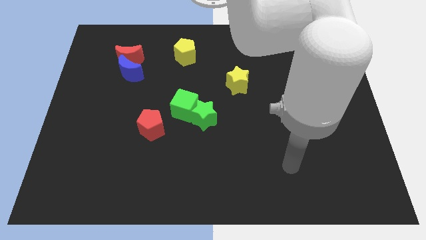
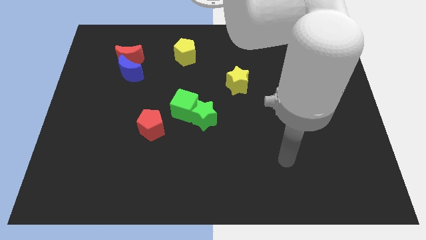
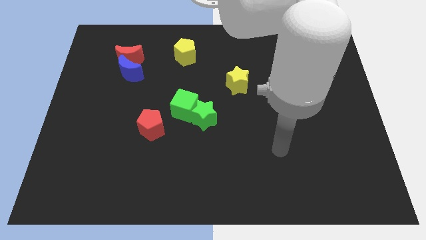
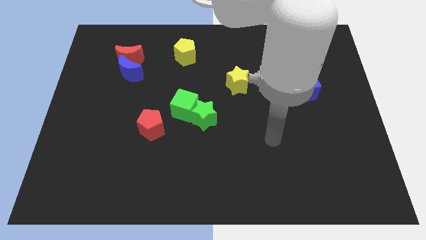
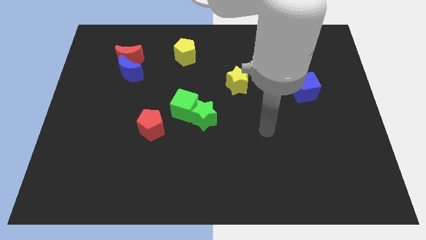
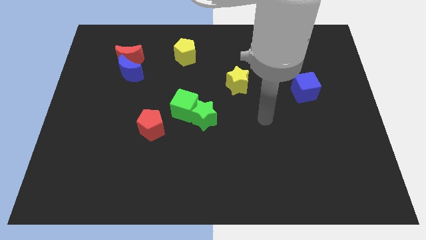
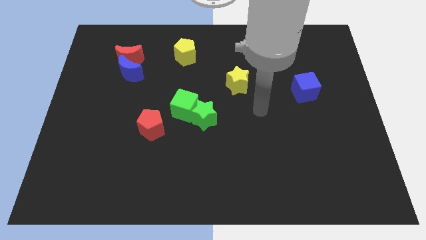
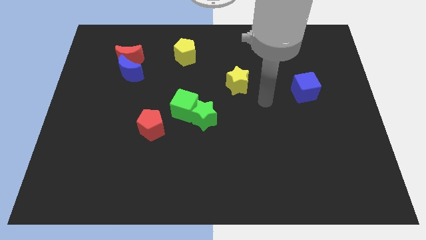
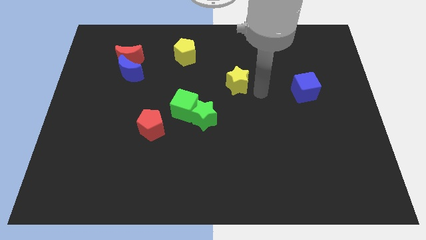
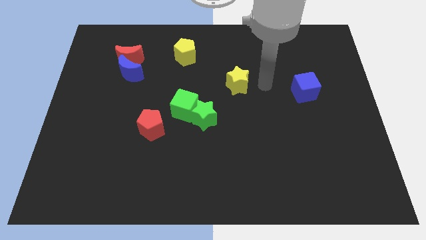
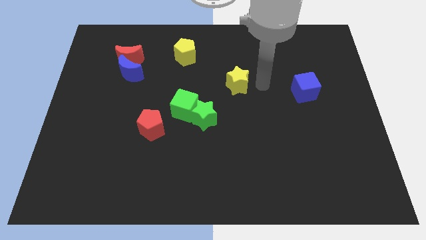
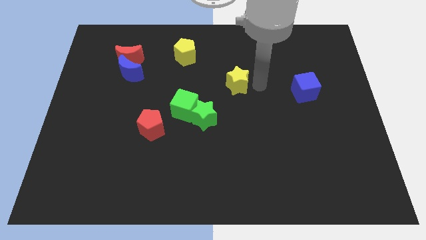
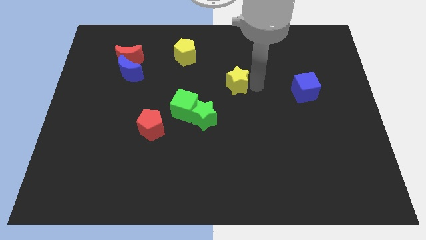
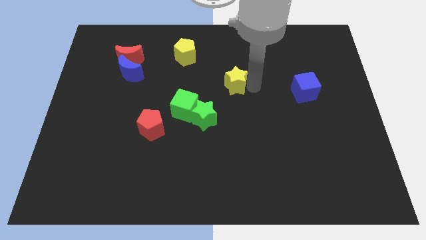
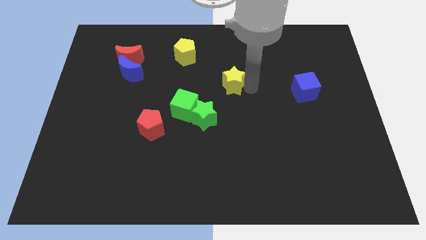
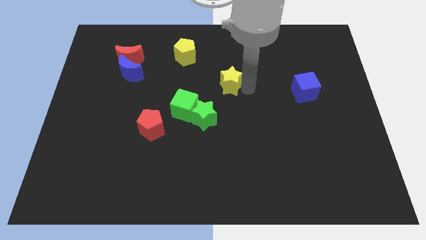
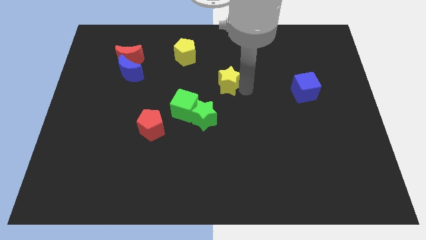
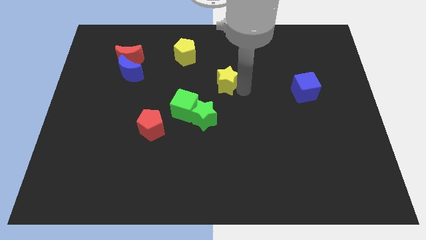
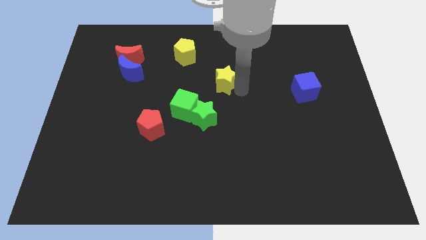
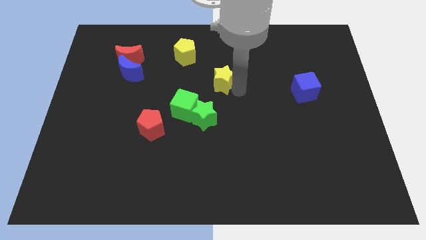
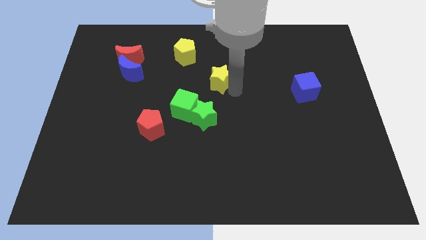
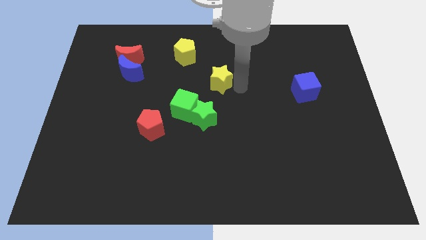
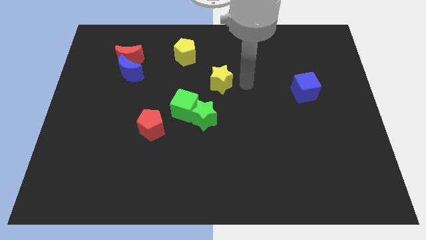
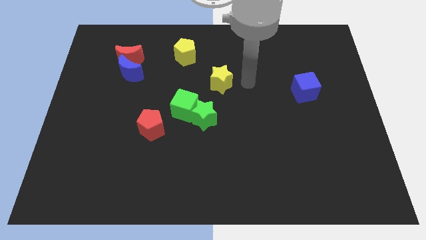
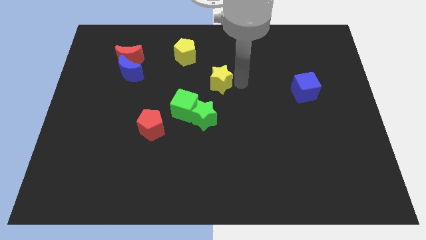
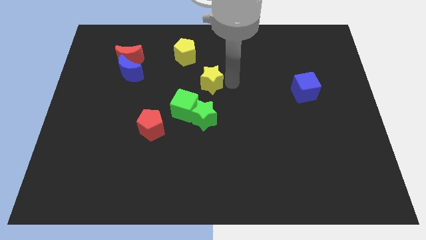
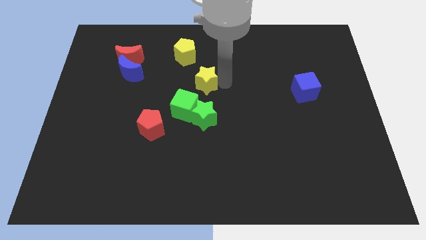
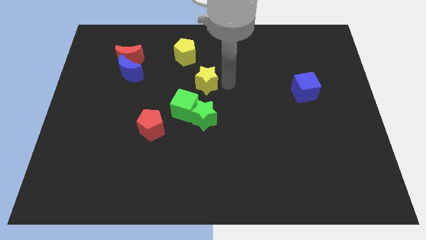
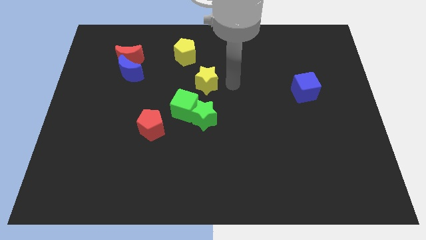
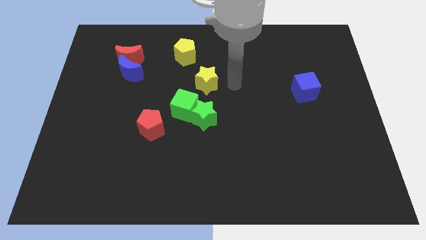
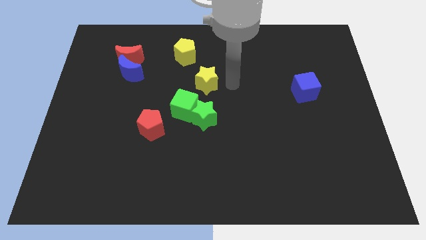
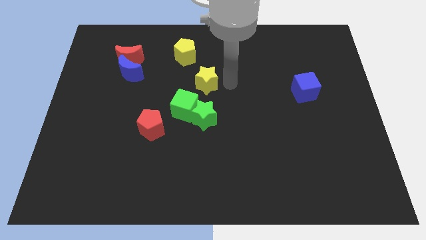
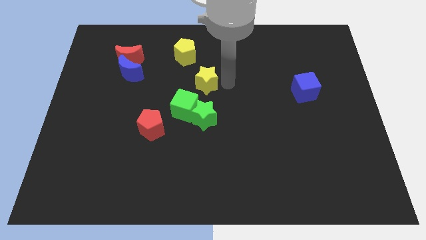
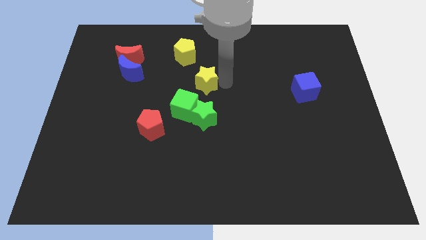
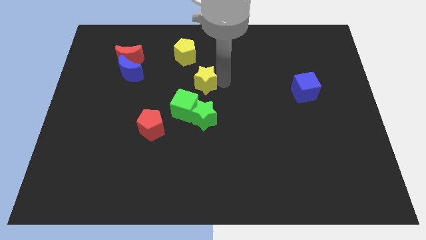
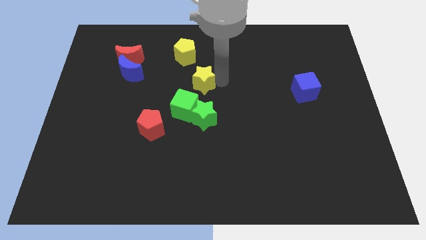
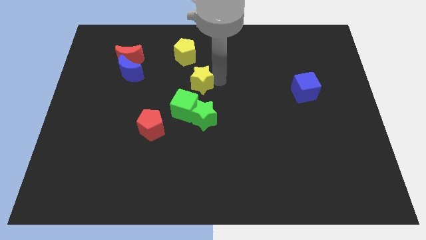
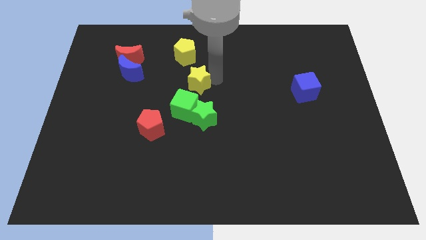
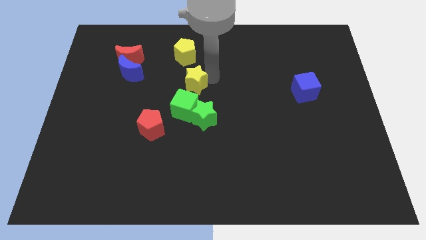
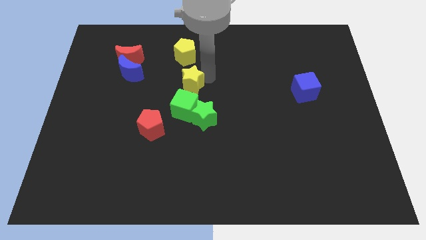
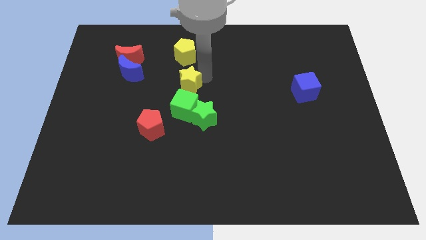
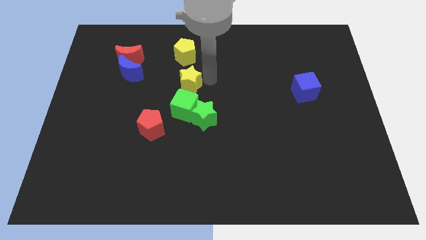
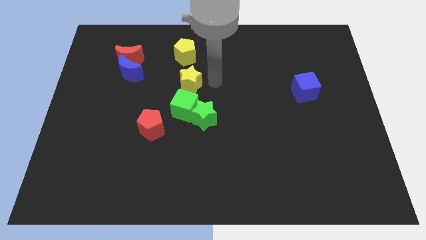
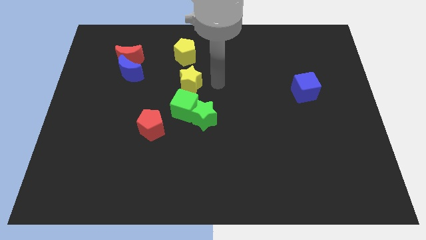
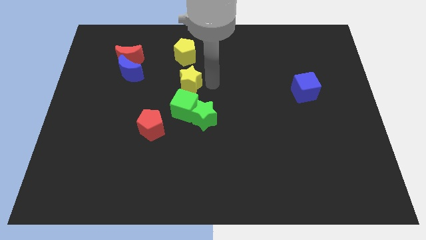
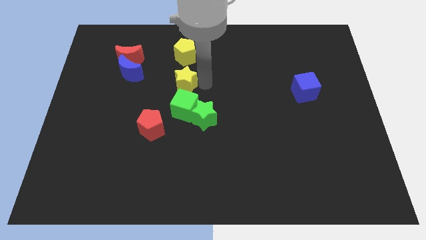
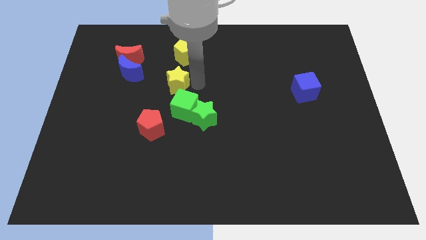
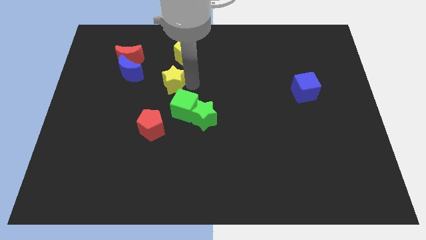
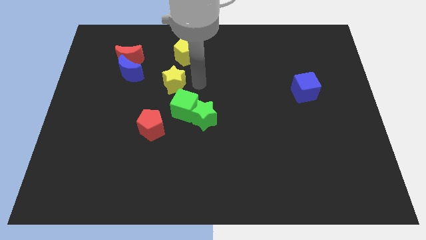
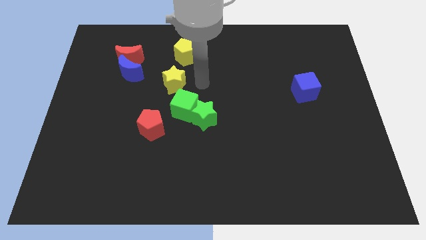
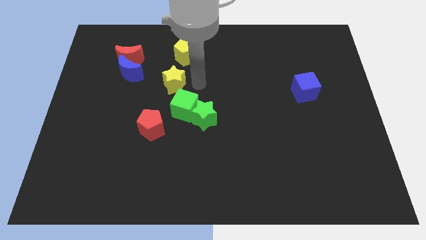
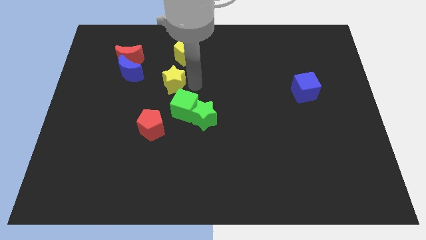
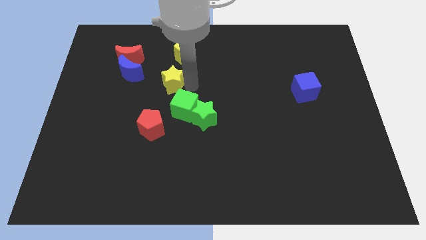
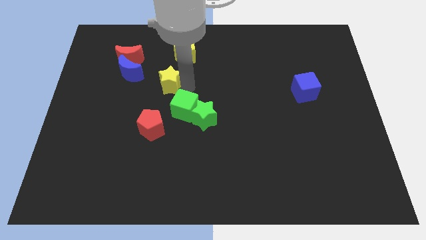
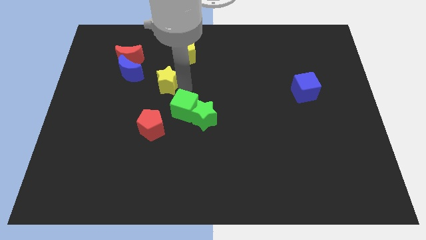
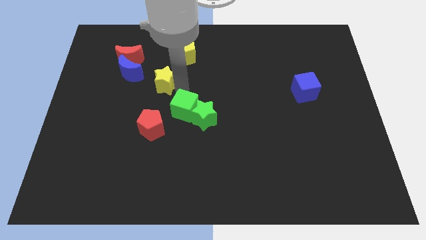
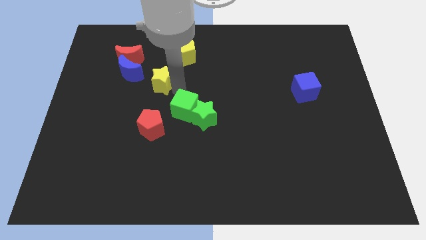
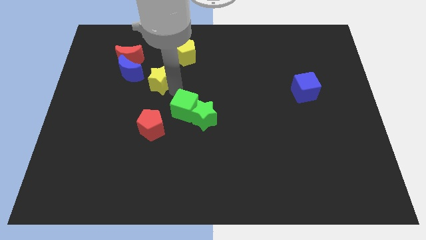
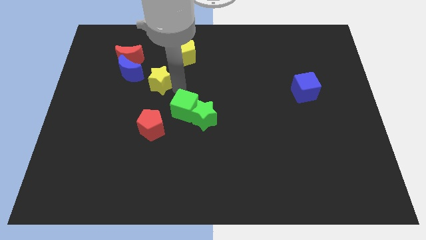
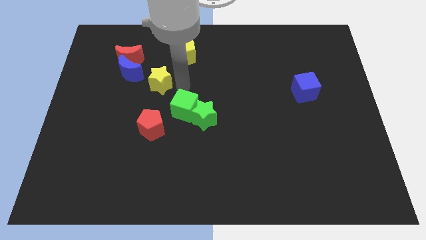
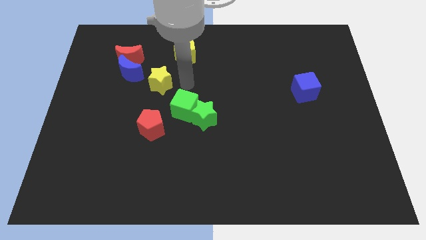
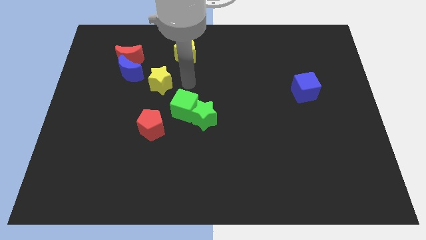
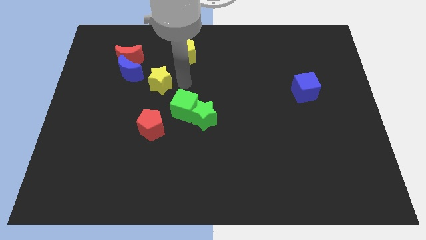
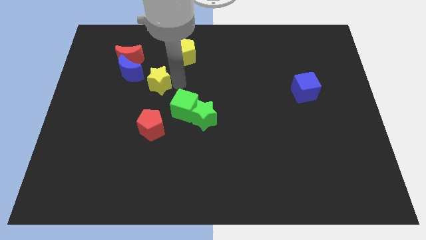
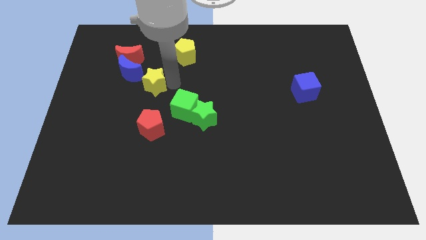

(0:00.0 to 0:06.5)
move the yellow star left

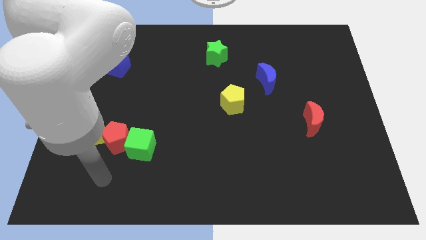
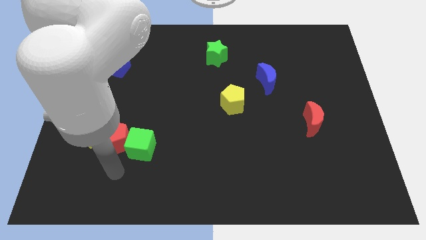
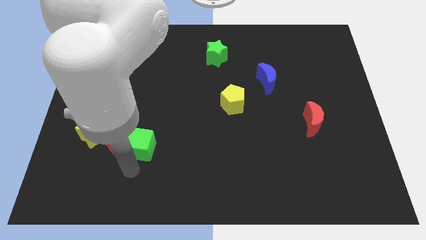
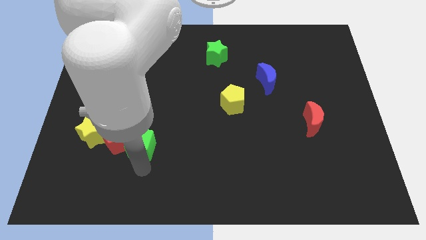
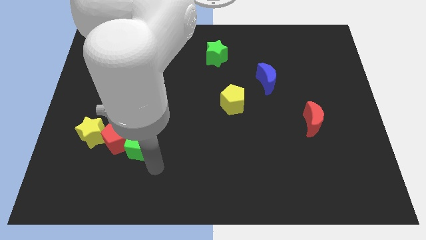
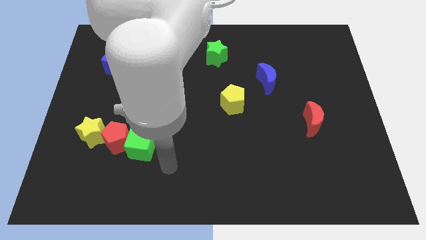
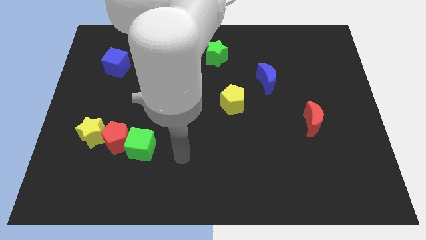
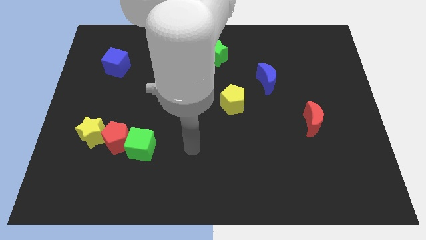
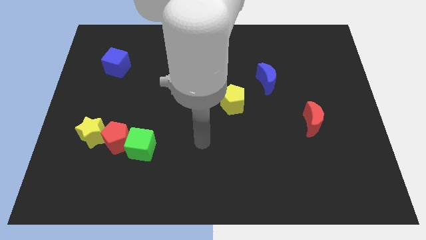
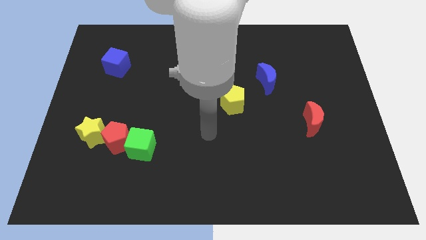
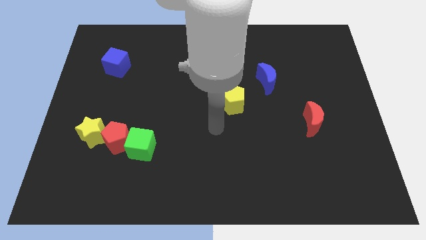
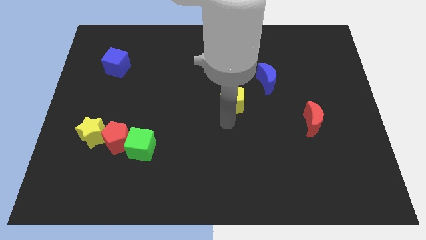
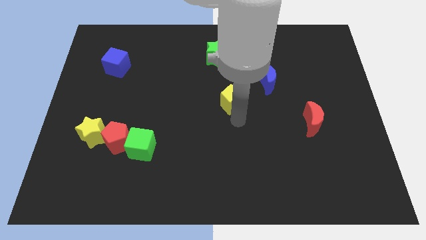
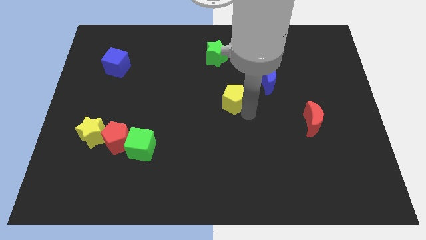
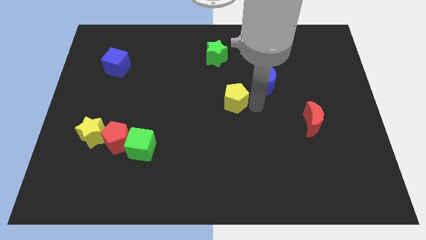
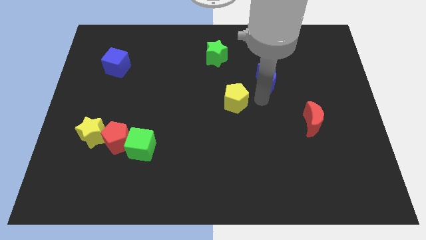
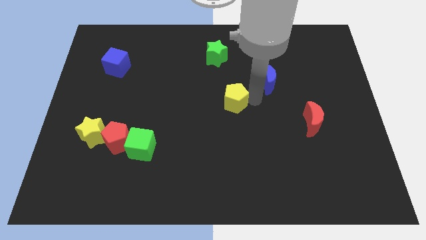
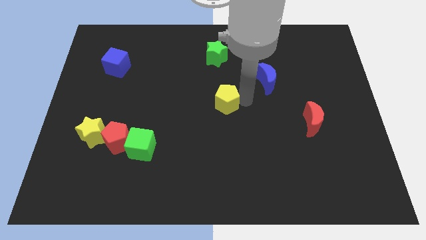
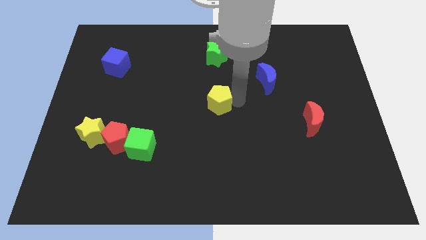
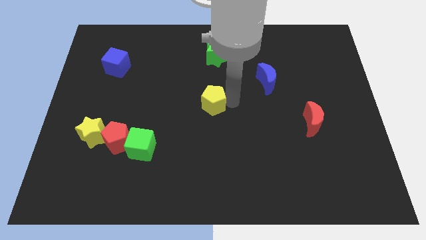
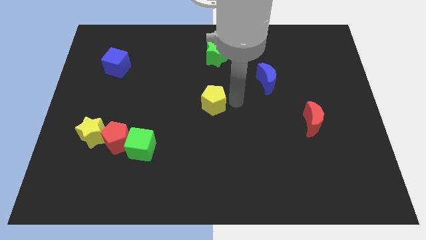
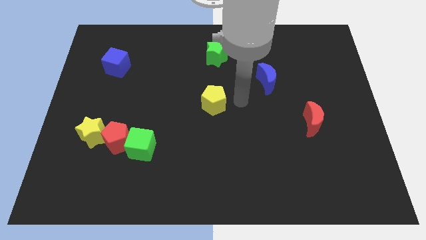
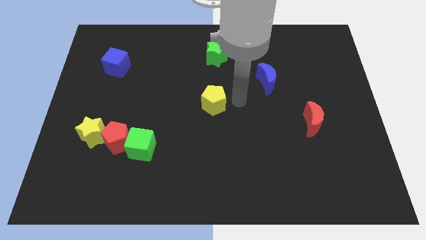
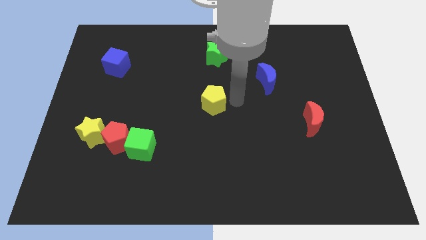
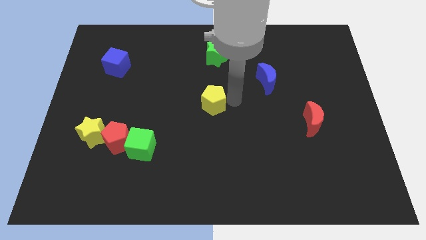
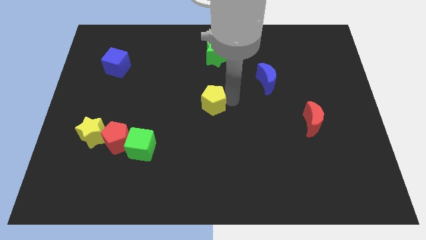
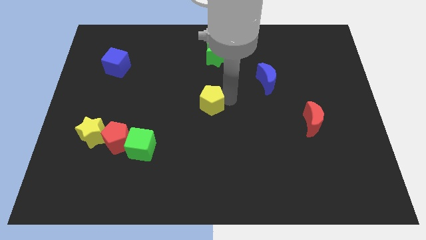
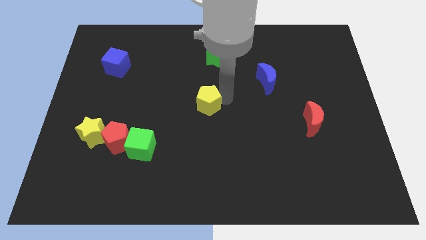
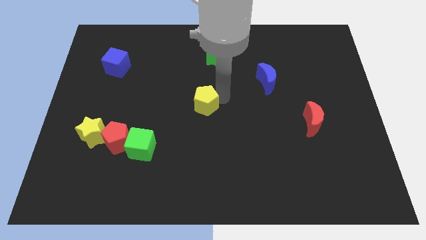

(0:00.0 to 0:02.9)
slightly move the yellow pentagon to the left
